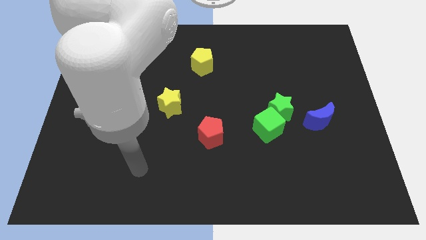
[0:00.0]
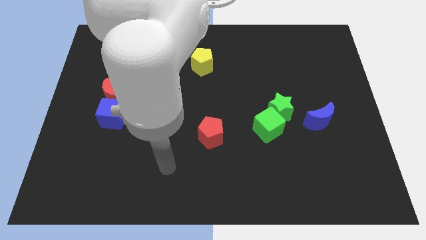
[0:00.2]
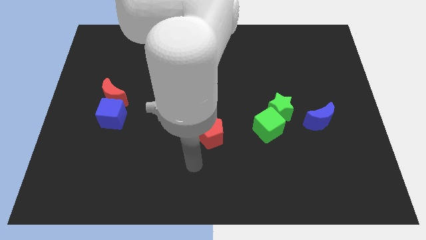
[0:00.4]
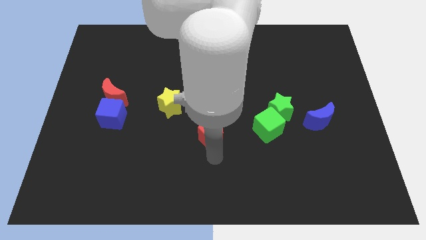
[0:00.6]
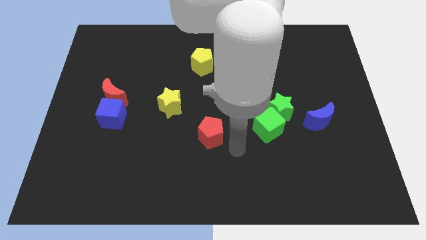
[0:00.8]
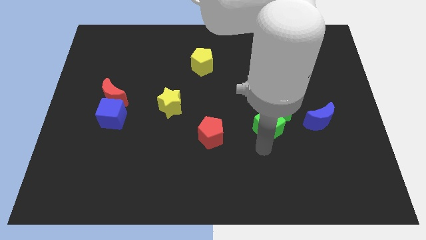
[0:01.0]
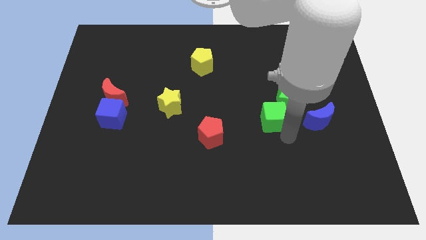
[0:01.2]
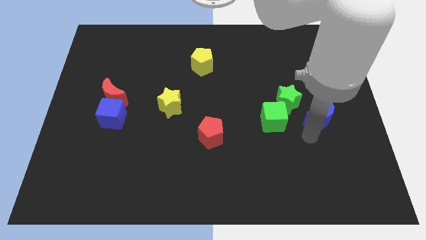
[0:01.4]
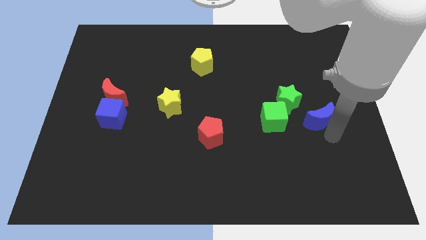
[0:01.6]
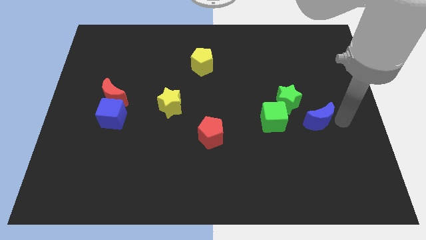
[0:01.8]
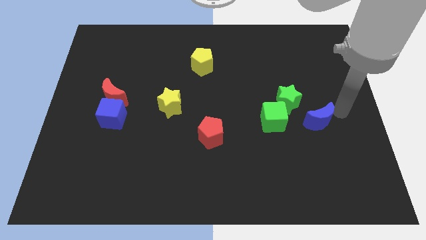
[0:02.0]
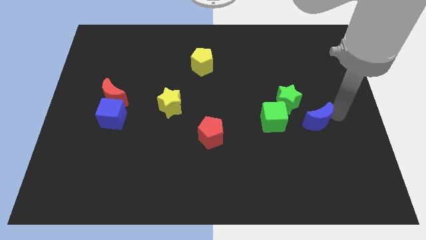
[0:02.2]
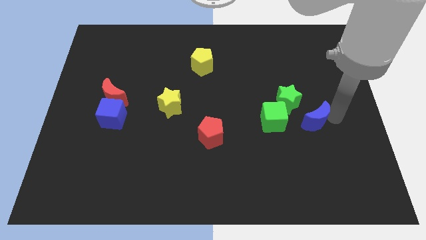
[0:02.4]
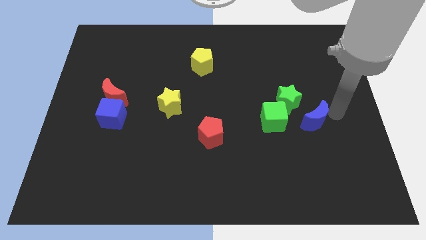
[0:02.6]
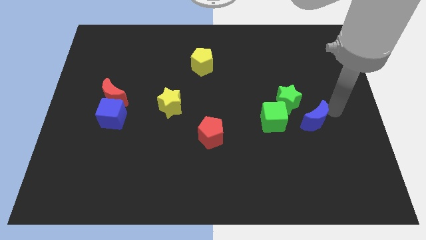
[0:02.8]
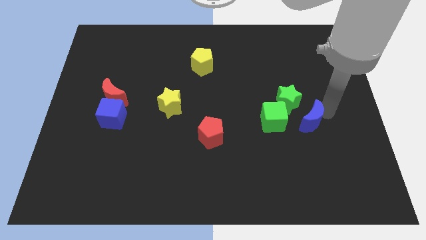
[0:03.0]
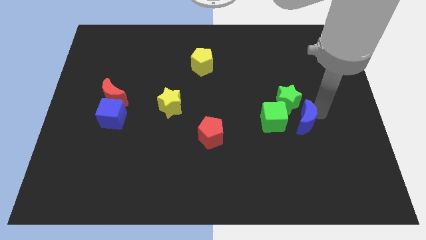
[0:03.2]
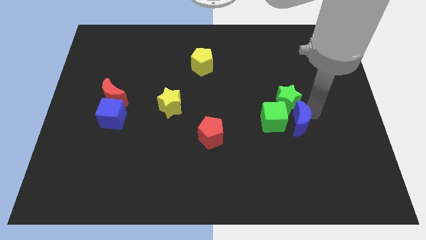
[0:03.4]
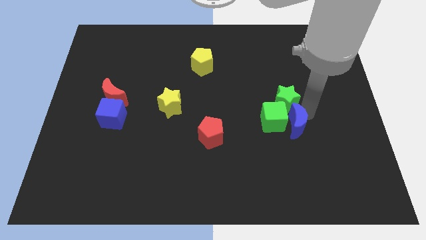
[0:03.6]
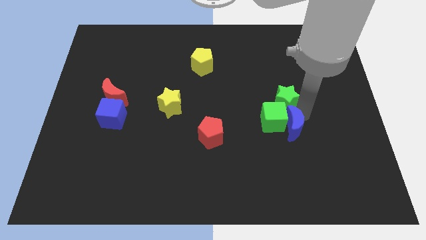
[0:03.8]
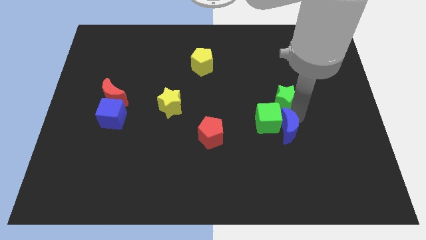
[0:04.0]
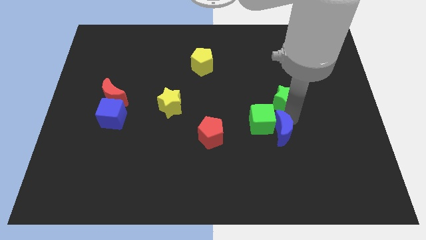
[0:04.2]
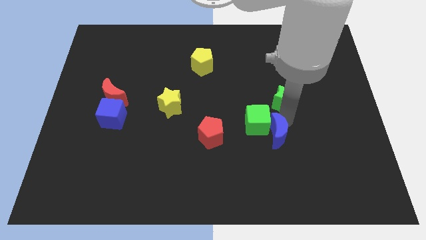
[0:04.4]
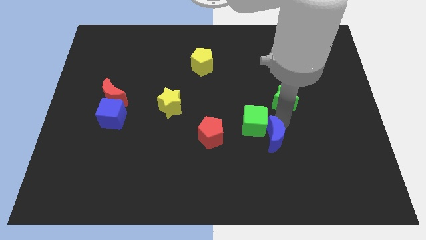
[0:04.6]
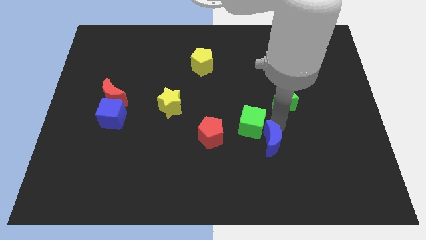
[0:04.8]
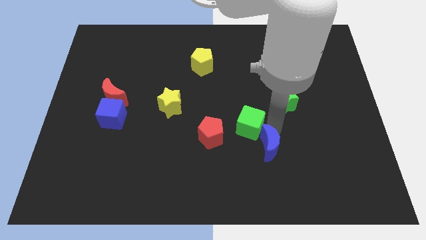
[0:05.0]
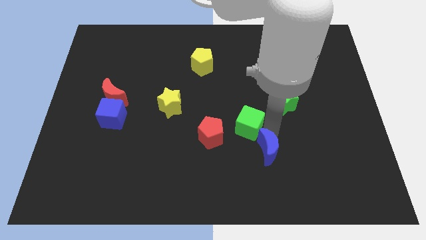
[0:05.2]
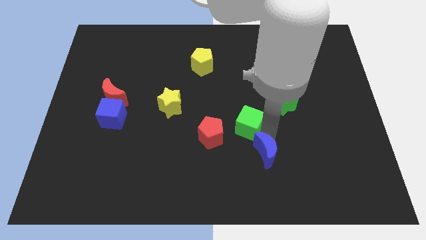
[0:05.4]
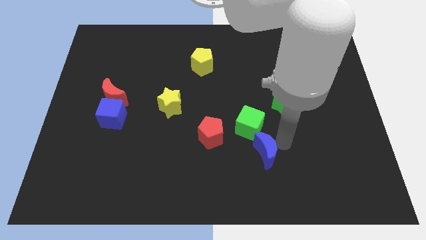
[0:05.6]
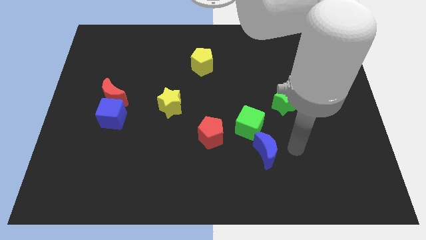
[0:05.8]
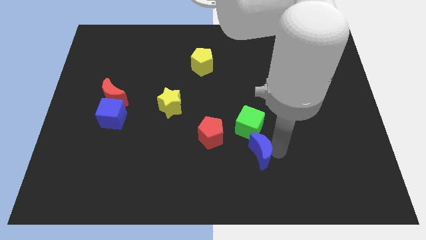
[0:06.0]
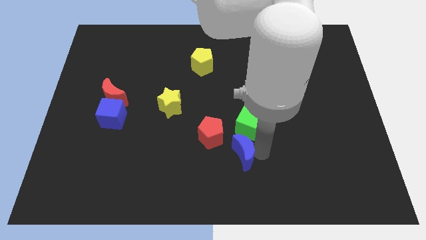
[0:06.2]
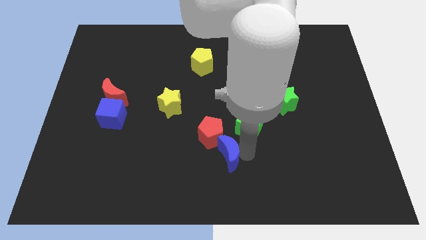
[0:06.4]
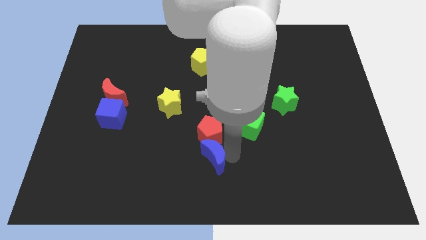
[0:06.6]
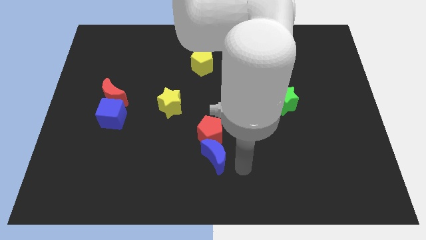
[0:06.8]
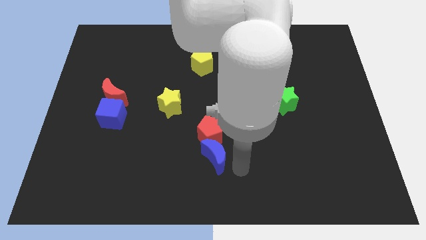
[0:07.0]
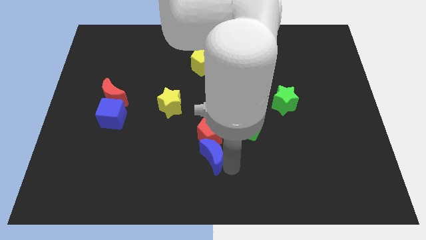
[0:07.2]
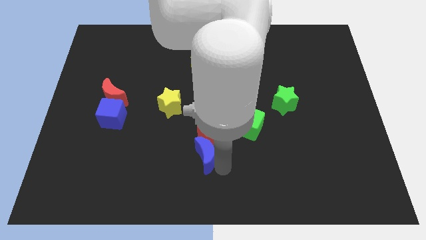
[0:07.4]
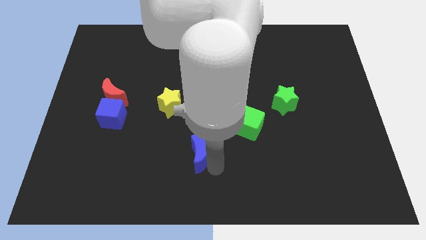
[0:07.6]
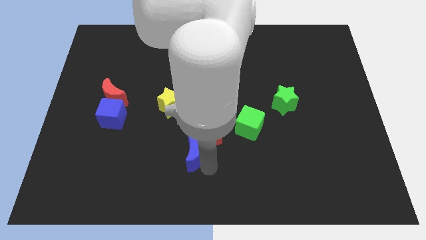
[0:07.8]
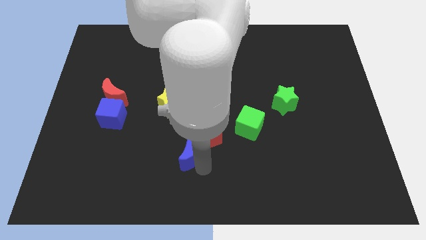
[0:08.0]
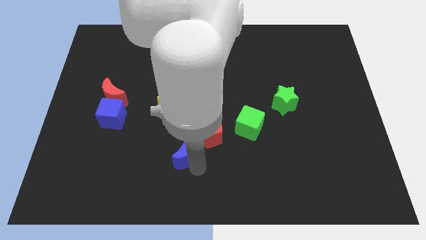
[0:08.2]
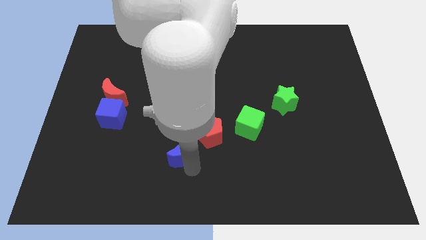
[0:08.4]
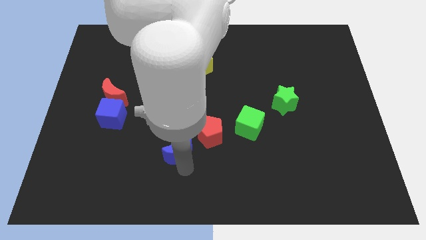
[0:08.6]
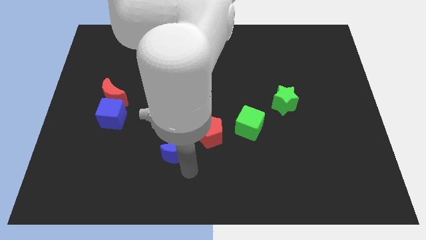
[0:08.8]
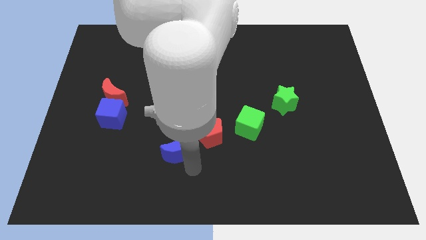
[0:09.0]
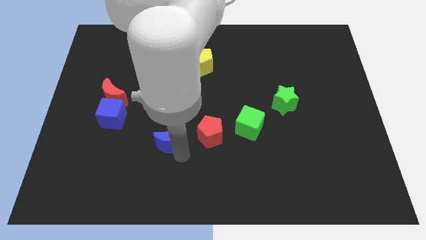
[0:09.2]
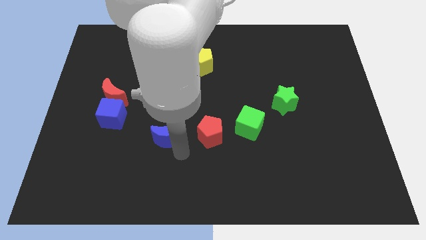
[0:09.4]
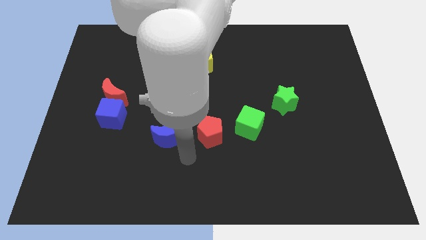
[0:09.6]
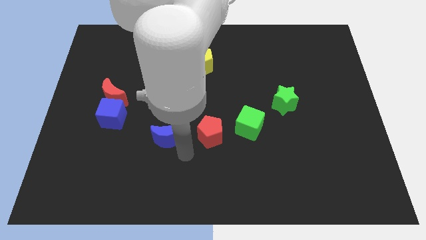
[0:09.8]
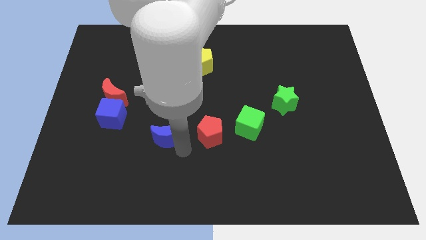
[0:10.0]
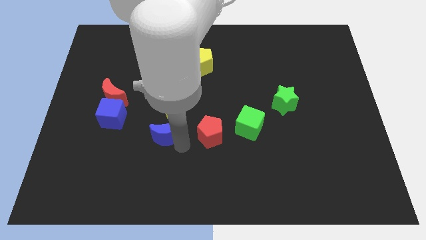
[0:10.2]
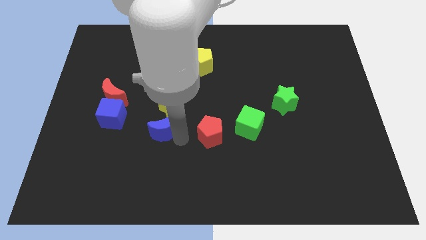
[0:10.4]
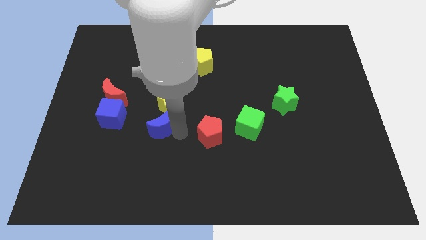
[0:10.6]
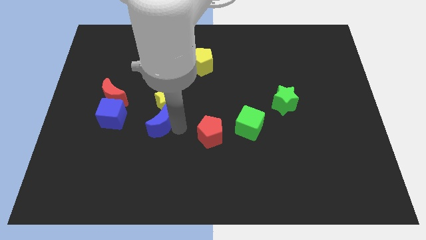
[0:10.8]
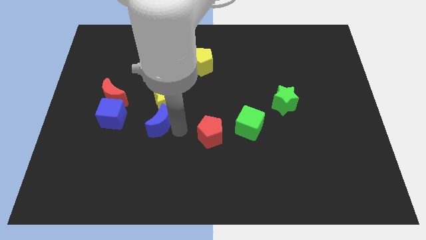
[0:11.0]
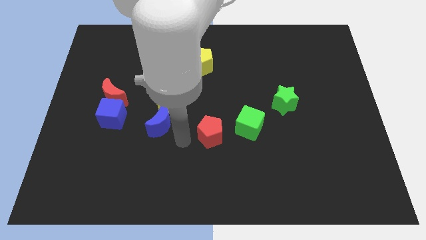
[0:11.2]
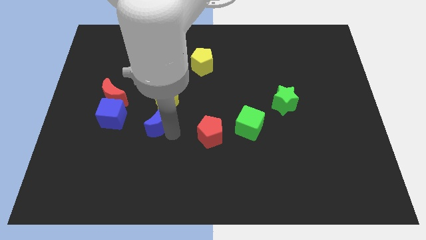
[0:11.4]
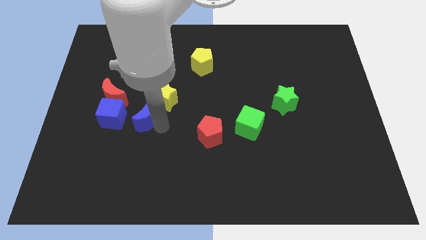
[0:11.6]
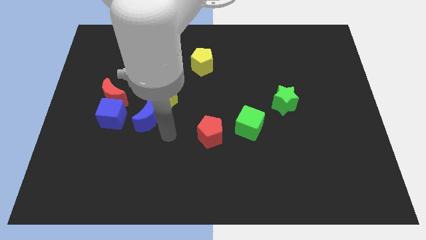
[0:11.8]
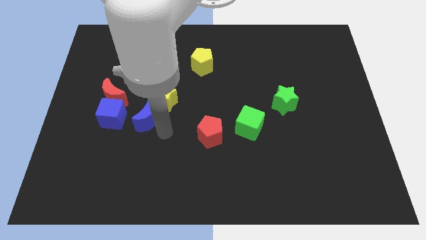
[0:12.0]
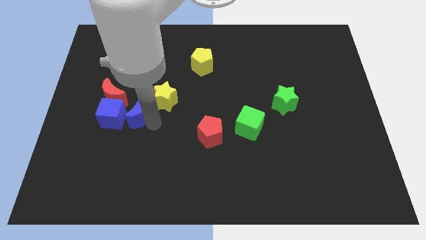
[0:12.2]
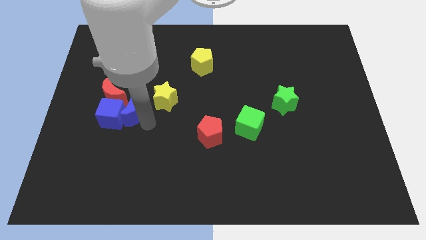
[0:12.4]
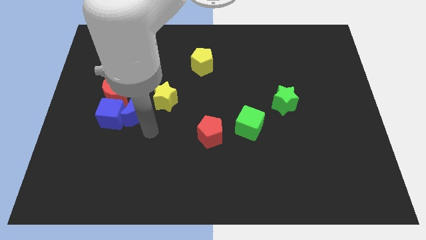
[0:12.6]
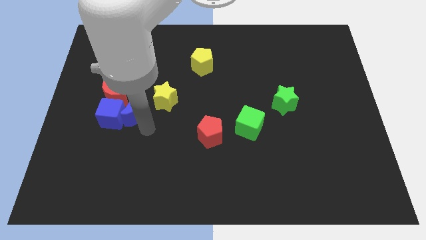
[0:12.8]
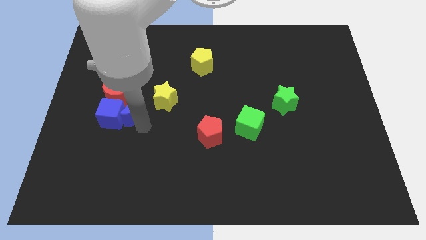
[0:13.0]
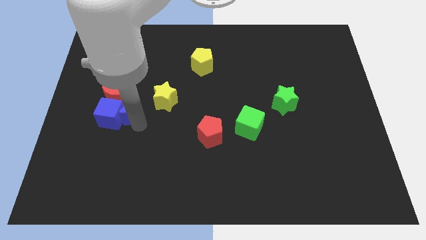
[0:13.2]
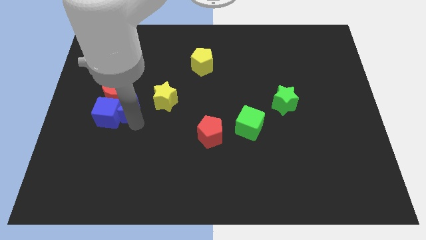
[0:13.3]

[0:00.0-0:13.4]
slide the blue moon next to the red moon
